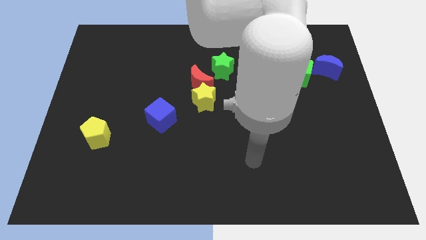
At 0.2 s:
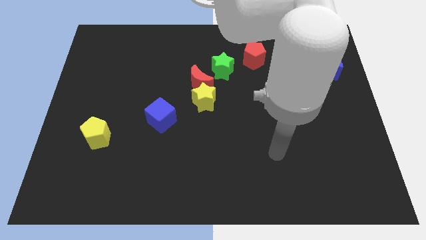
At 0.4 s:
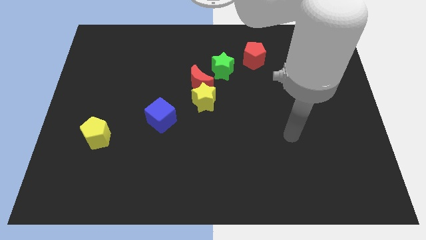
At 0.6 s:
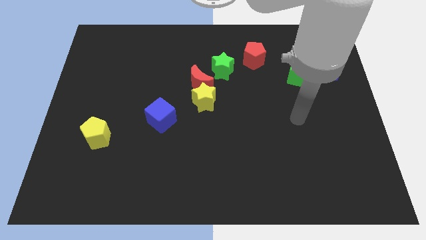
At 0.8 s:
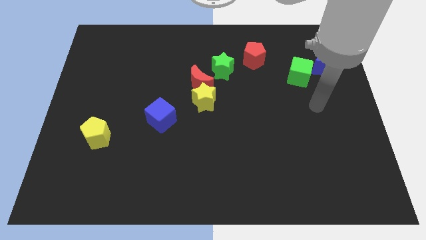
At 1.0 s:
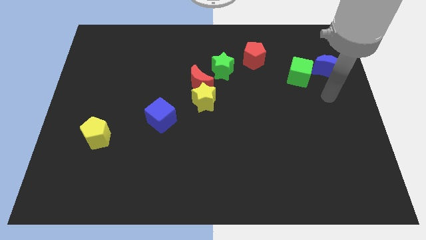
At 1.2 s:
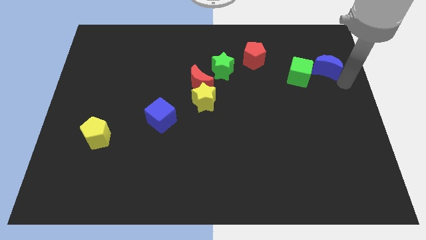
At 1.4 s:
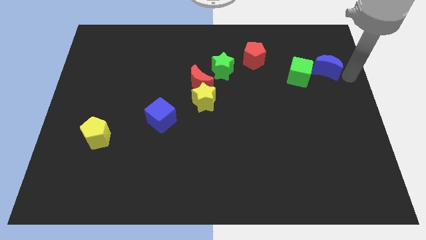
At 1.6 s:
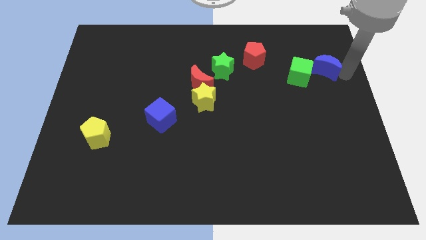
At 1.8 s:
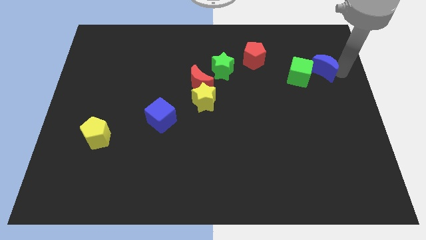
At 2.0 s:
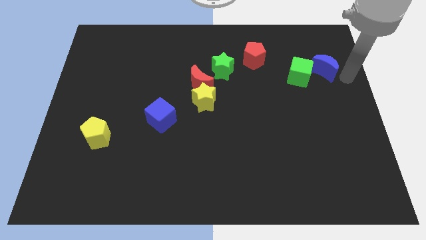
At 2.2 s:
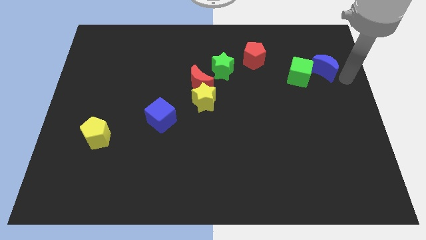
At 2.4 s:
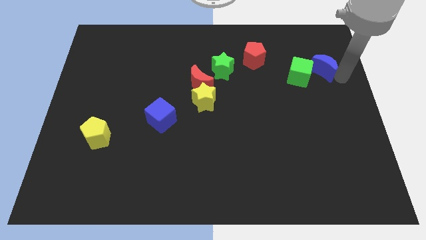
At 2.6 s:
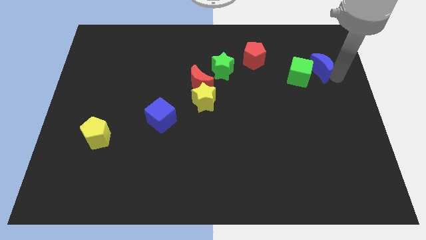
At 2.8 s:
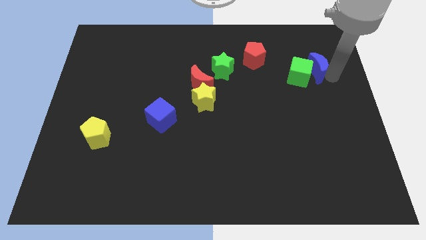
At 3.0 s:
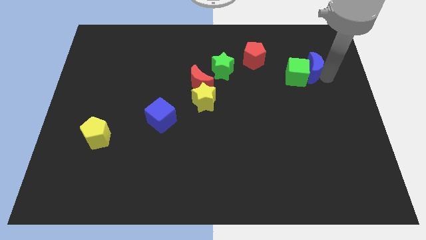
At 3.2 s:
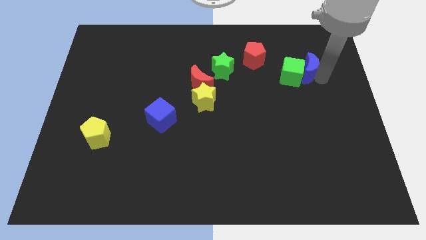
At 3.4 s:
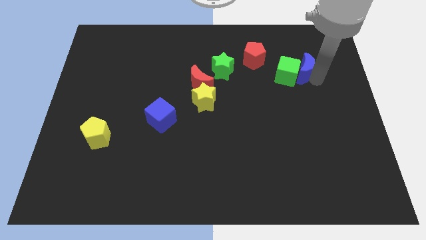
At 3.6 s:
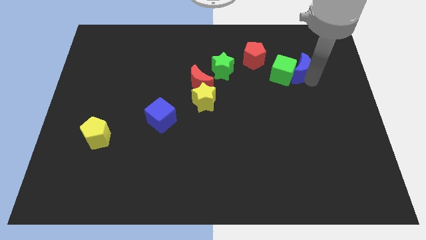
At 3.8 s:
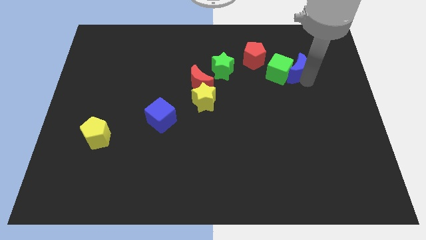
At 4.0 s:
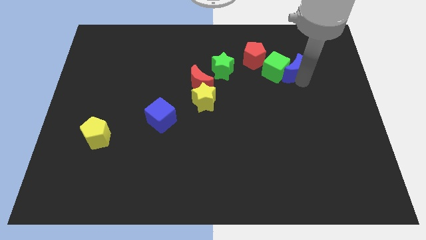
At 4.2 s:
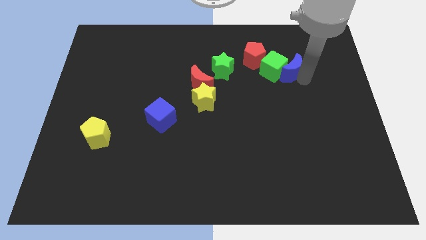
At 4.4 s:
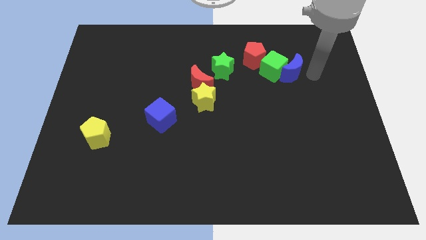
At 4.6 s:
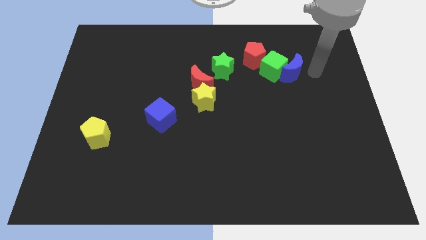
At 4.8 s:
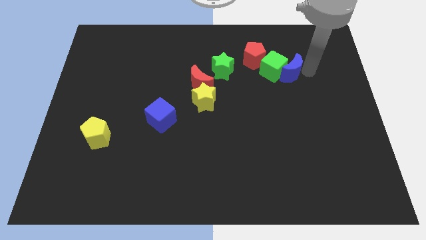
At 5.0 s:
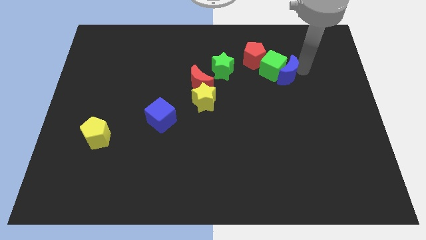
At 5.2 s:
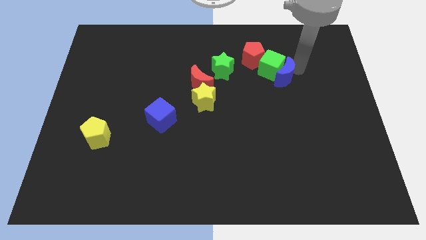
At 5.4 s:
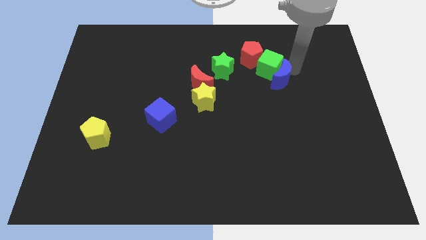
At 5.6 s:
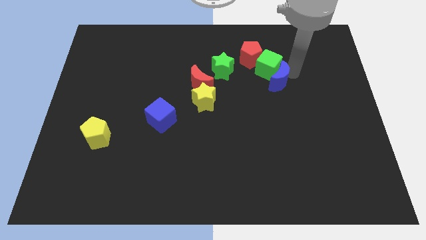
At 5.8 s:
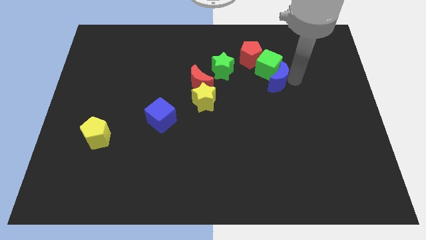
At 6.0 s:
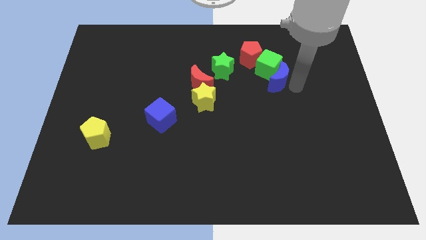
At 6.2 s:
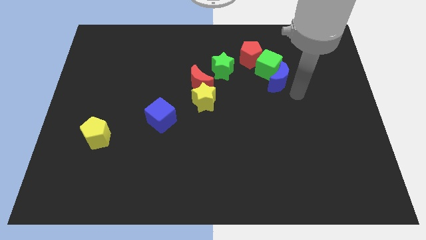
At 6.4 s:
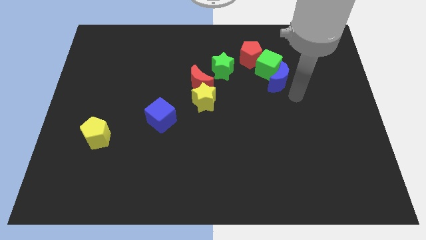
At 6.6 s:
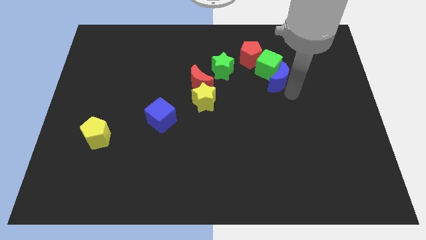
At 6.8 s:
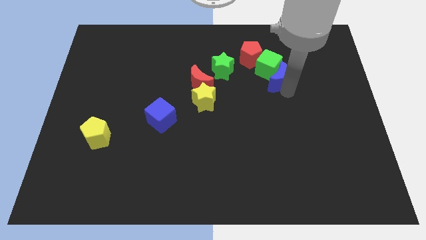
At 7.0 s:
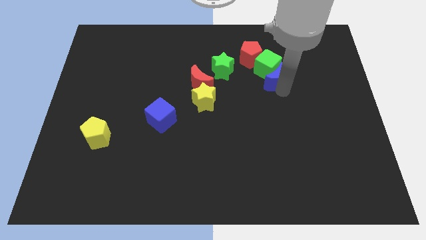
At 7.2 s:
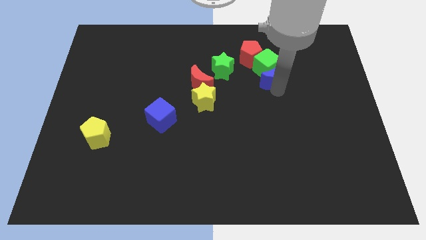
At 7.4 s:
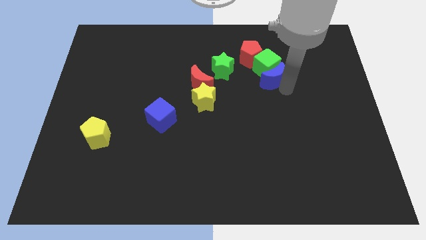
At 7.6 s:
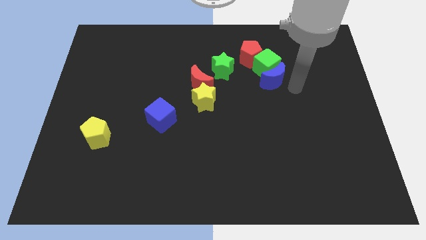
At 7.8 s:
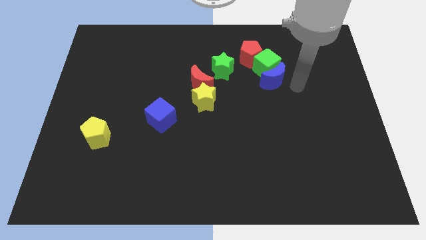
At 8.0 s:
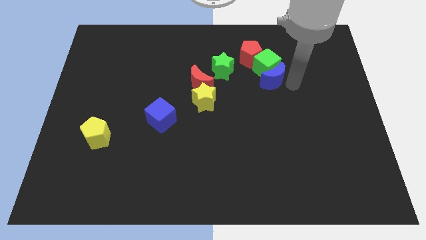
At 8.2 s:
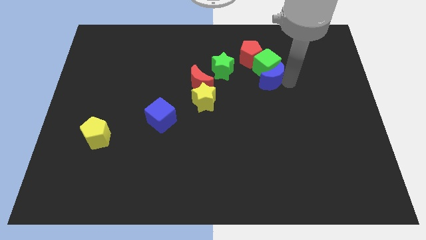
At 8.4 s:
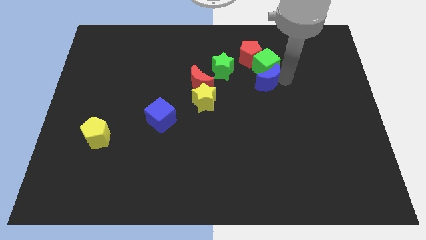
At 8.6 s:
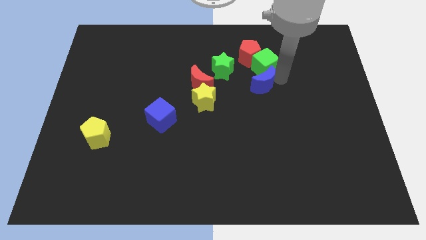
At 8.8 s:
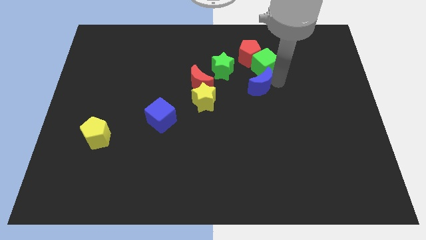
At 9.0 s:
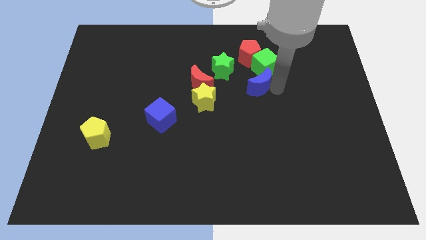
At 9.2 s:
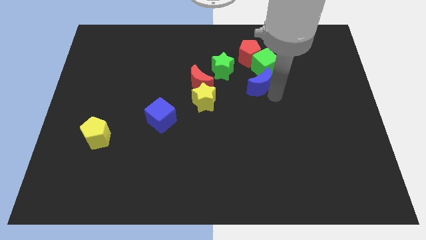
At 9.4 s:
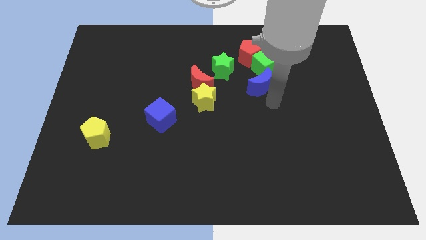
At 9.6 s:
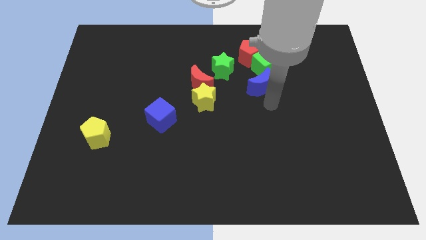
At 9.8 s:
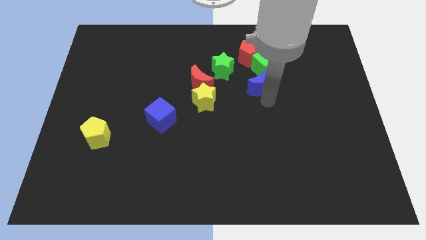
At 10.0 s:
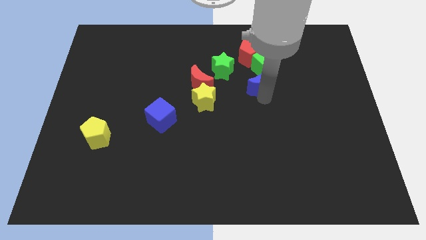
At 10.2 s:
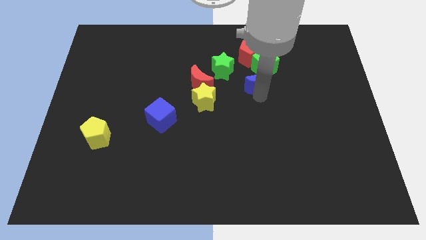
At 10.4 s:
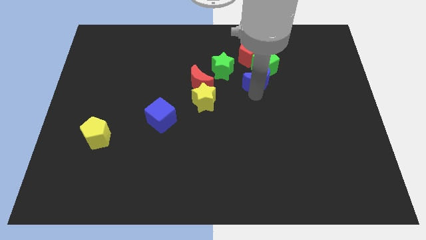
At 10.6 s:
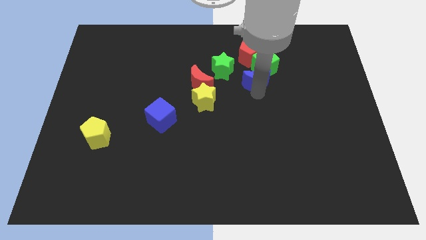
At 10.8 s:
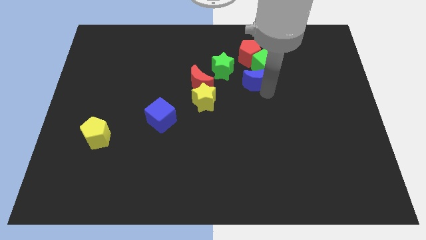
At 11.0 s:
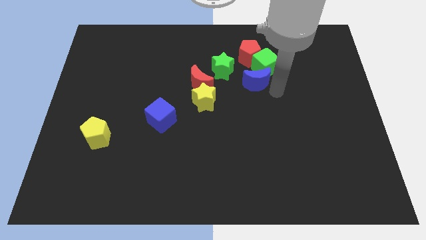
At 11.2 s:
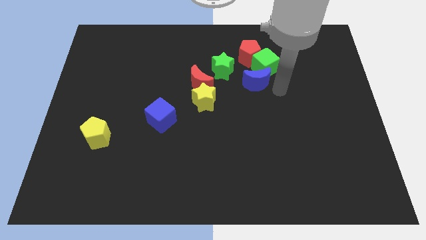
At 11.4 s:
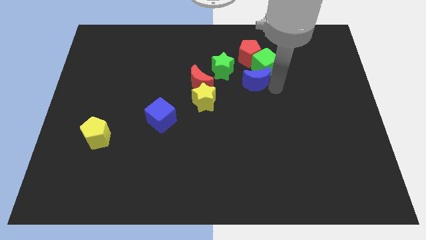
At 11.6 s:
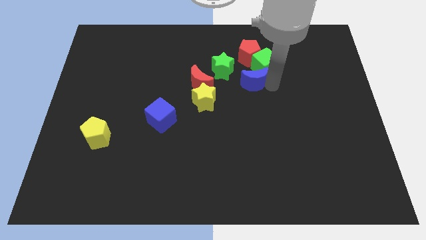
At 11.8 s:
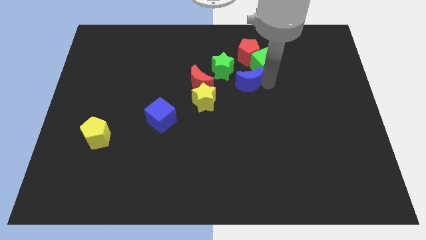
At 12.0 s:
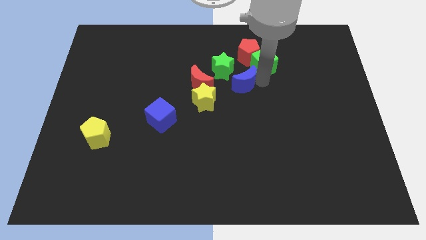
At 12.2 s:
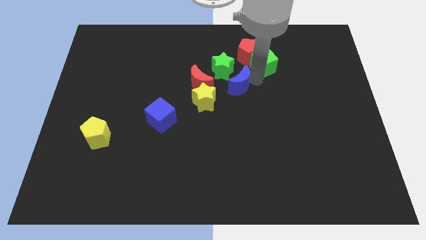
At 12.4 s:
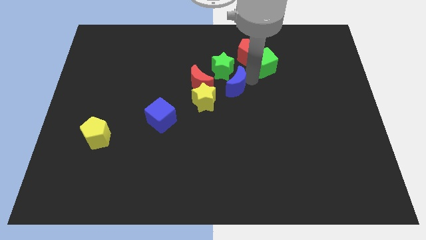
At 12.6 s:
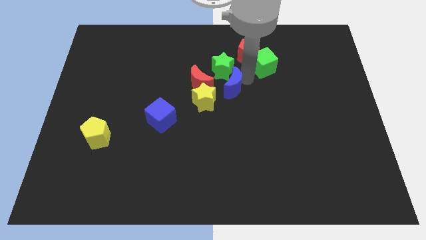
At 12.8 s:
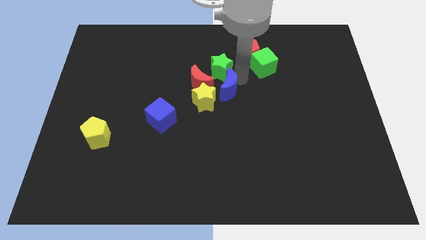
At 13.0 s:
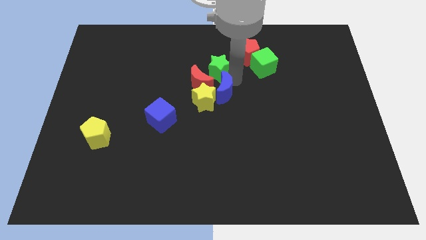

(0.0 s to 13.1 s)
push the blue moon towards the yellow star

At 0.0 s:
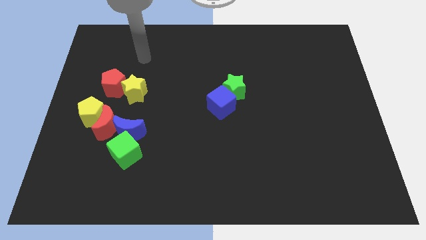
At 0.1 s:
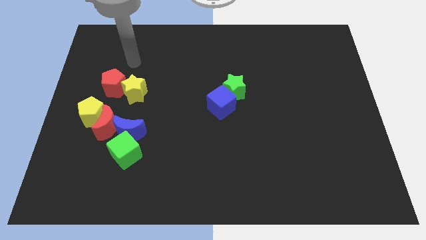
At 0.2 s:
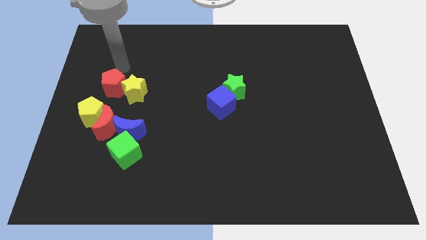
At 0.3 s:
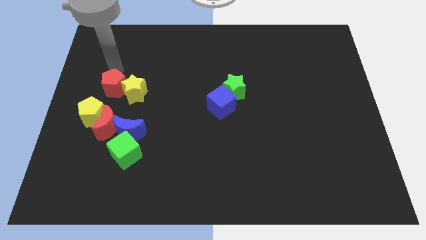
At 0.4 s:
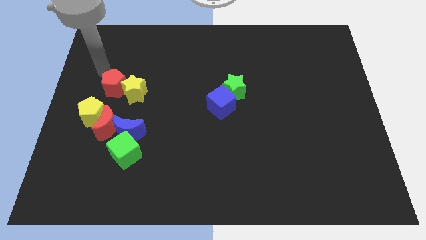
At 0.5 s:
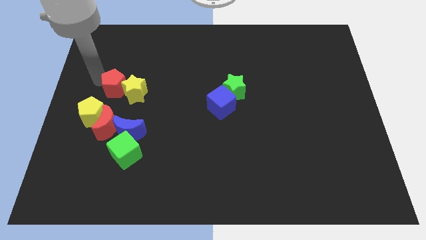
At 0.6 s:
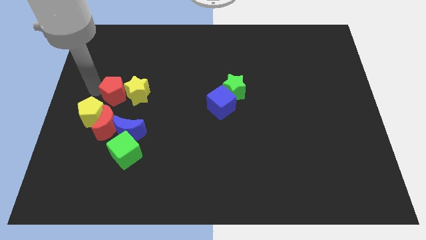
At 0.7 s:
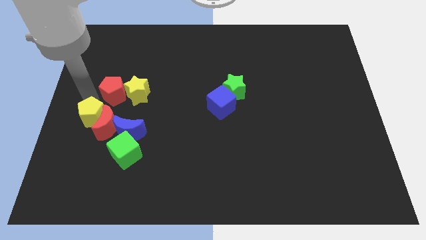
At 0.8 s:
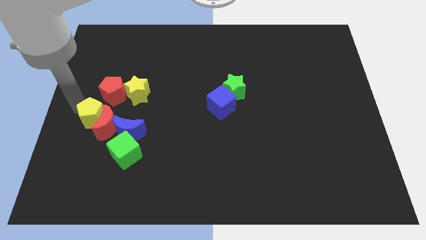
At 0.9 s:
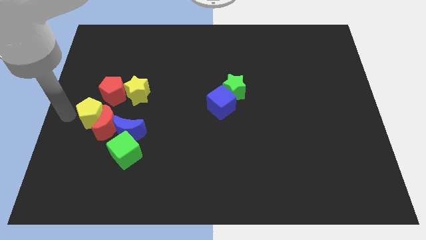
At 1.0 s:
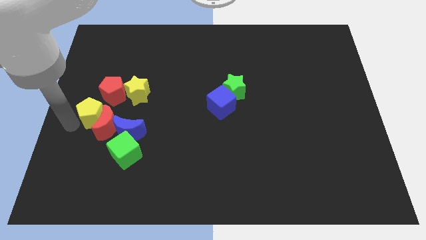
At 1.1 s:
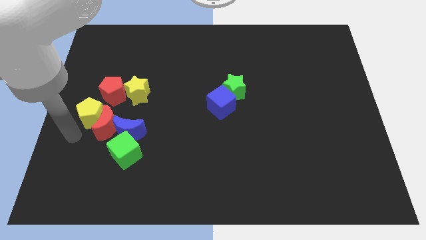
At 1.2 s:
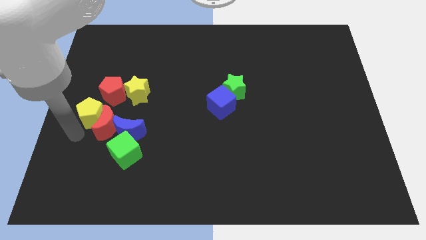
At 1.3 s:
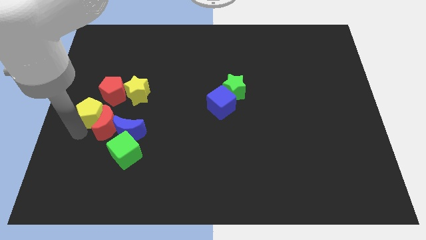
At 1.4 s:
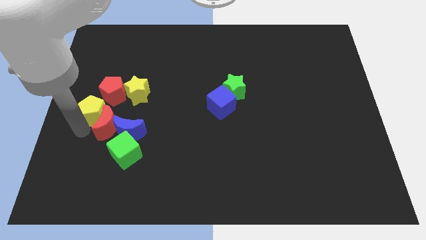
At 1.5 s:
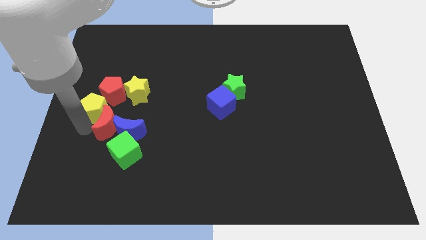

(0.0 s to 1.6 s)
put the yellow pentagon to the red pentagon
